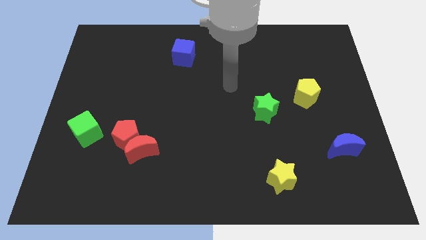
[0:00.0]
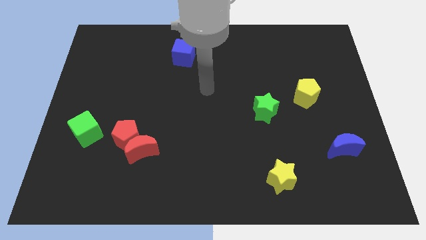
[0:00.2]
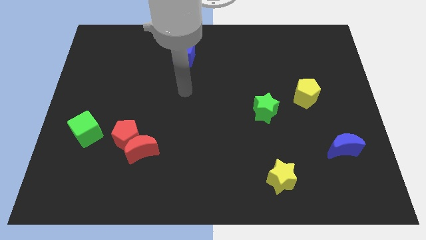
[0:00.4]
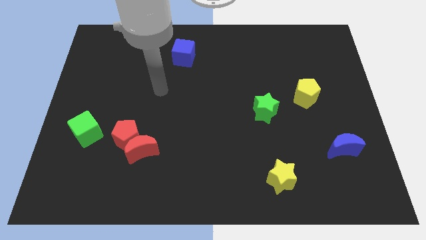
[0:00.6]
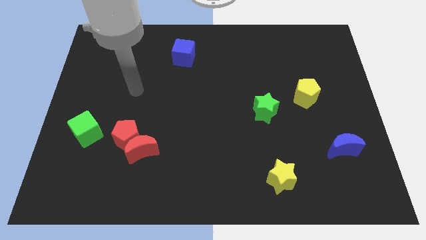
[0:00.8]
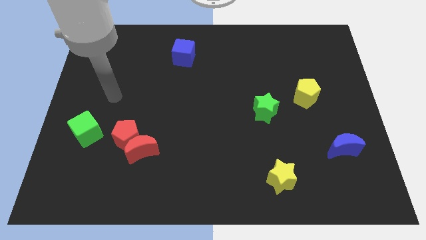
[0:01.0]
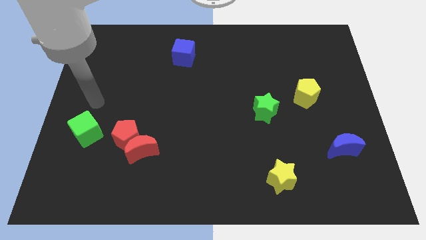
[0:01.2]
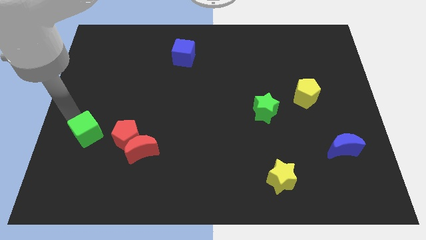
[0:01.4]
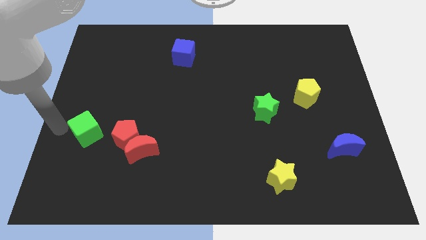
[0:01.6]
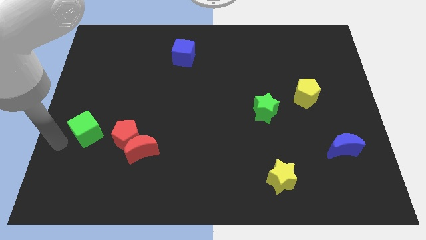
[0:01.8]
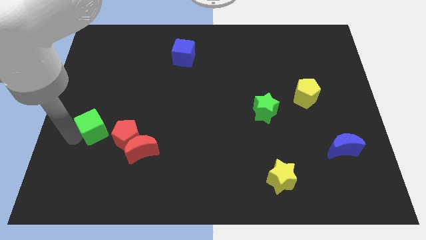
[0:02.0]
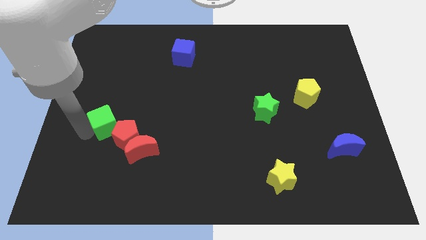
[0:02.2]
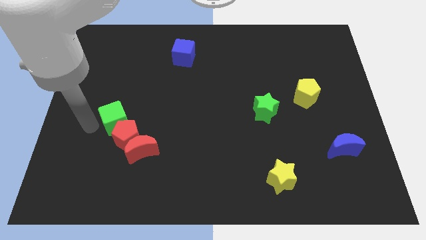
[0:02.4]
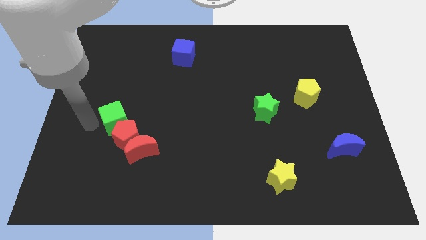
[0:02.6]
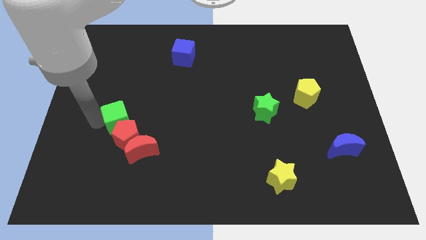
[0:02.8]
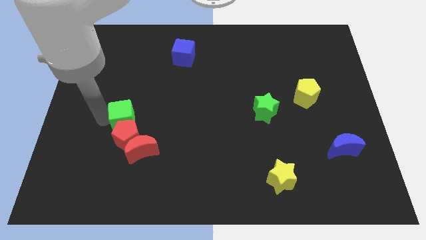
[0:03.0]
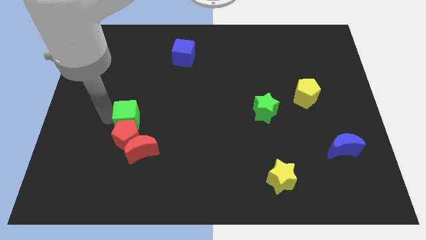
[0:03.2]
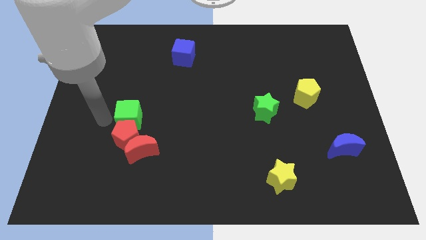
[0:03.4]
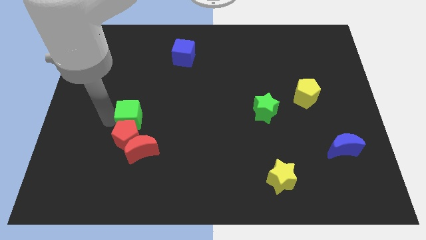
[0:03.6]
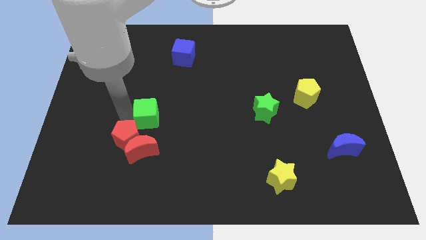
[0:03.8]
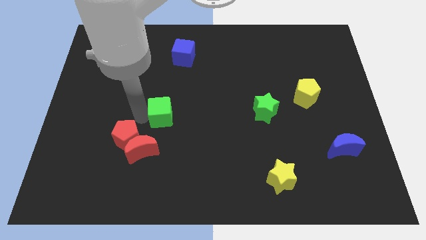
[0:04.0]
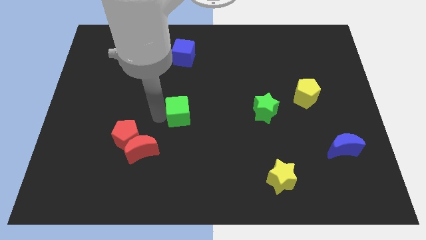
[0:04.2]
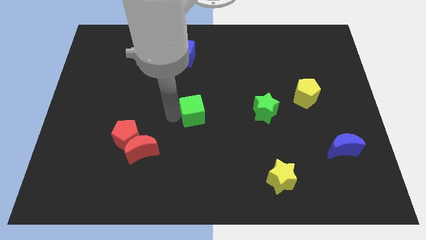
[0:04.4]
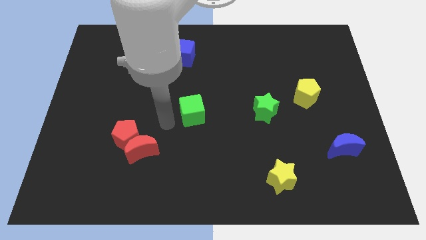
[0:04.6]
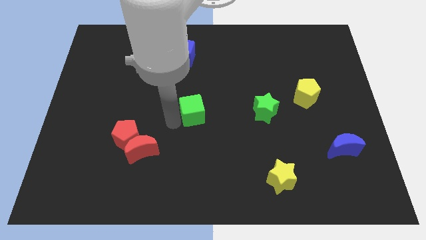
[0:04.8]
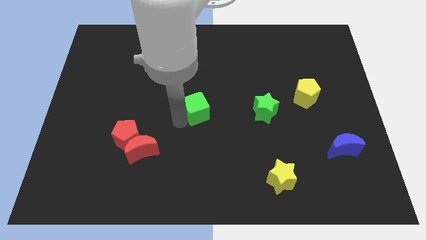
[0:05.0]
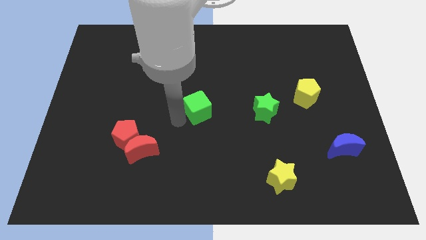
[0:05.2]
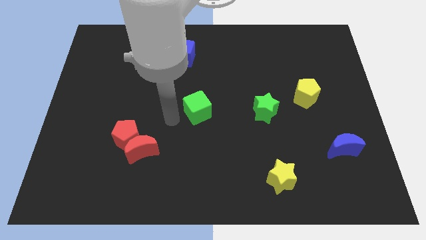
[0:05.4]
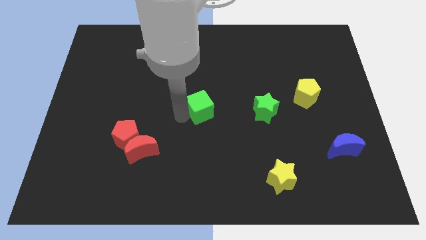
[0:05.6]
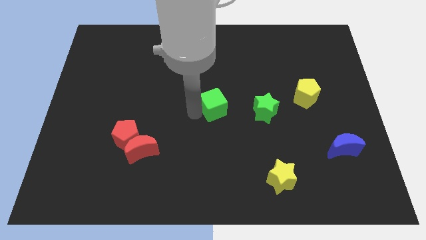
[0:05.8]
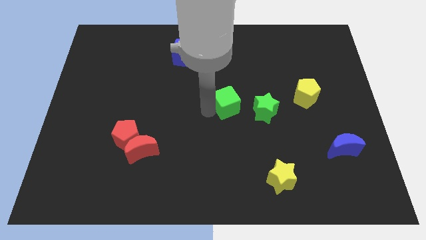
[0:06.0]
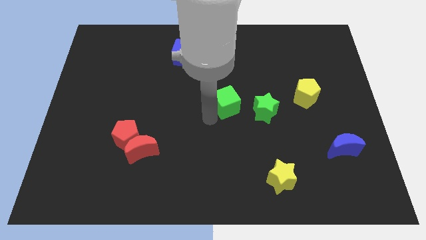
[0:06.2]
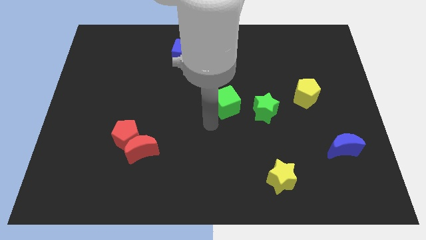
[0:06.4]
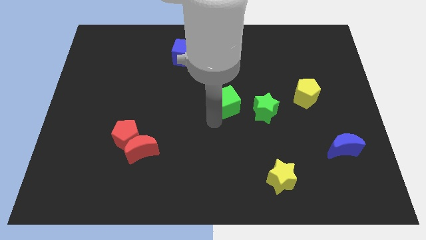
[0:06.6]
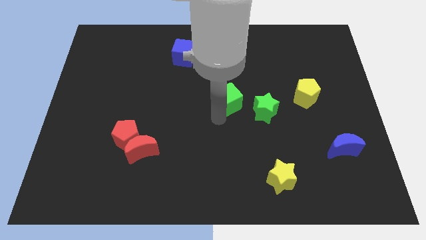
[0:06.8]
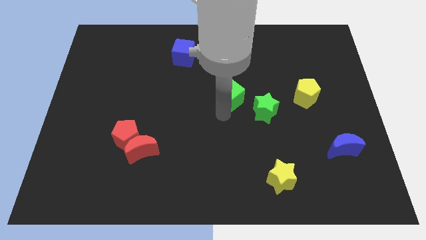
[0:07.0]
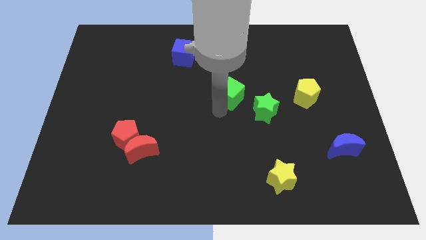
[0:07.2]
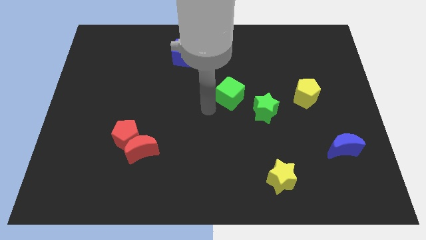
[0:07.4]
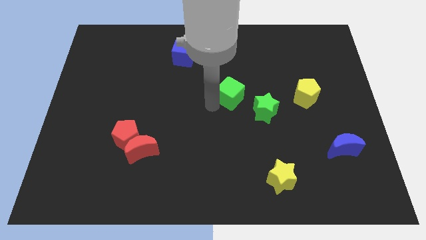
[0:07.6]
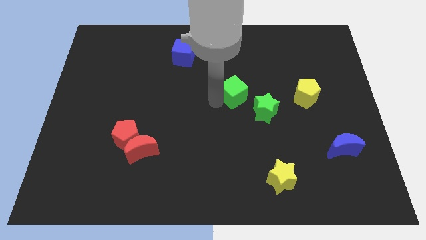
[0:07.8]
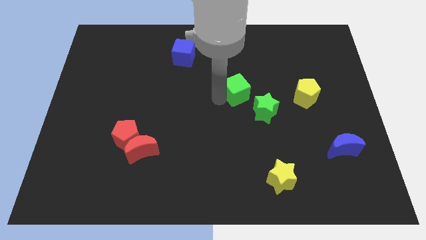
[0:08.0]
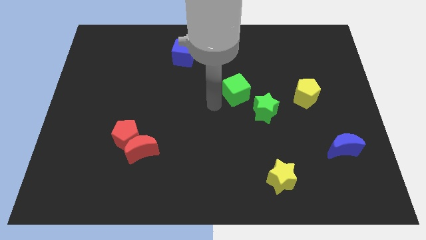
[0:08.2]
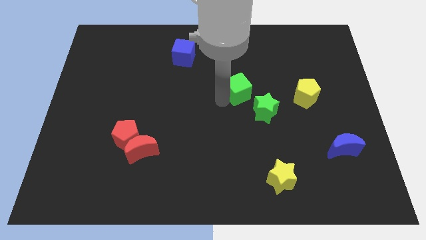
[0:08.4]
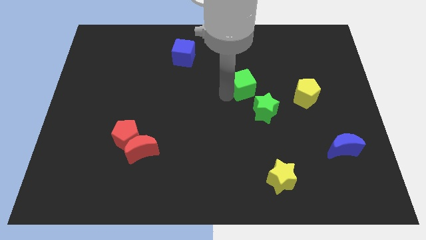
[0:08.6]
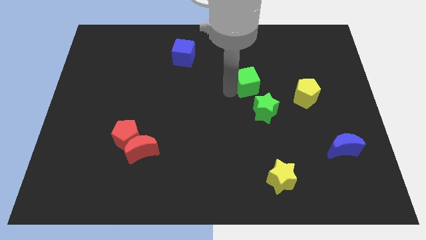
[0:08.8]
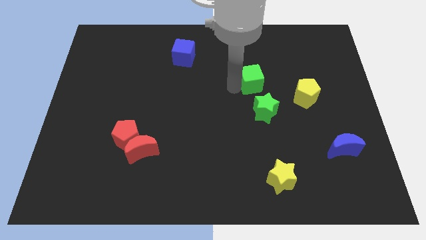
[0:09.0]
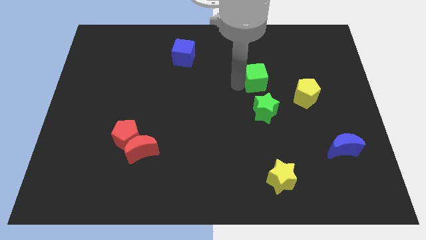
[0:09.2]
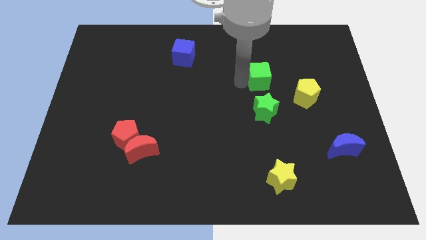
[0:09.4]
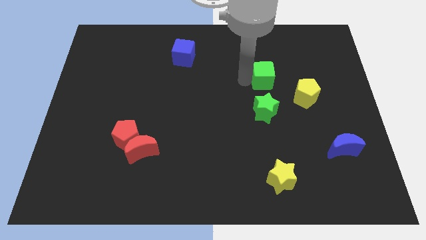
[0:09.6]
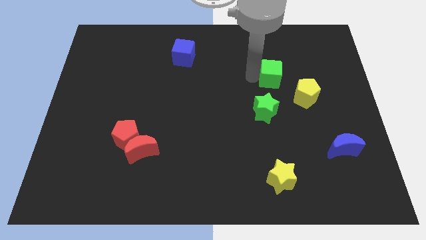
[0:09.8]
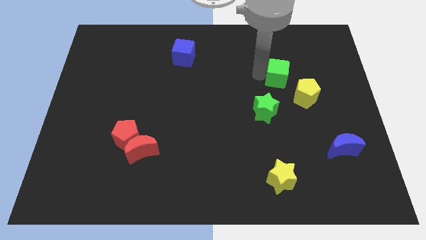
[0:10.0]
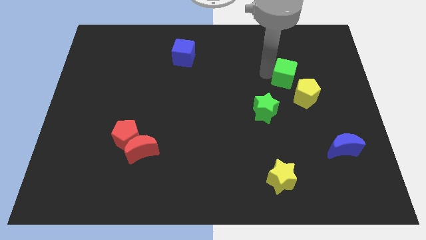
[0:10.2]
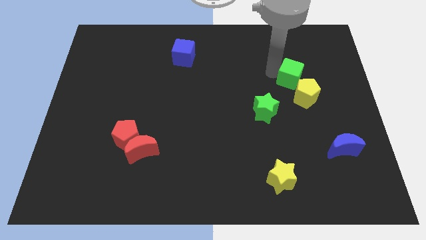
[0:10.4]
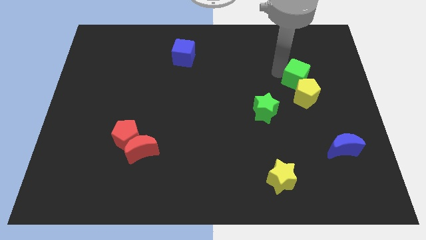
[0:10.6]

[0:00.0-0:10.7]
push the green cube towards the yellow pentagon

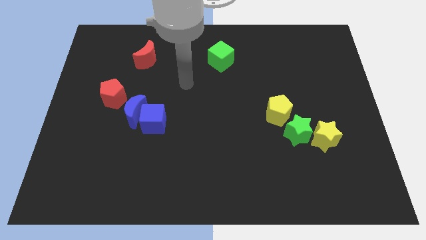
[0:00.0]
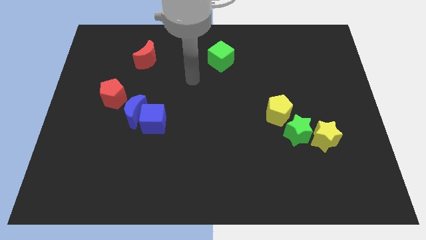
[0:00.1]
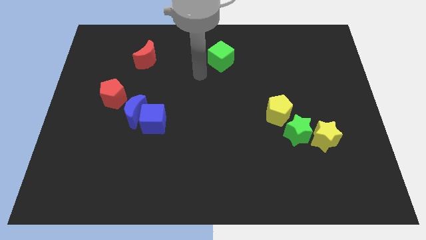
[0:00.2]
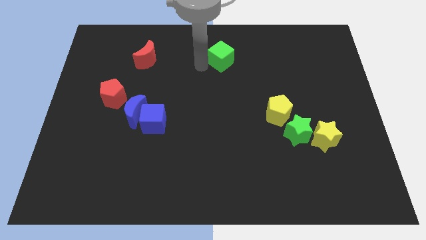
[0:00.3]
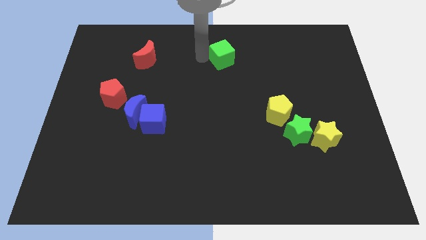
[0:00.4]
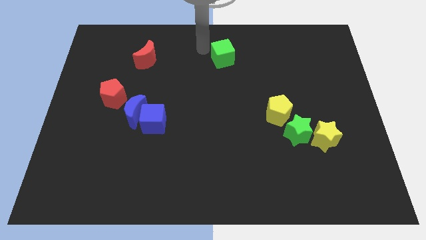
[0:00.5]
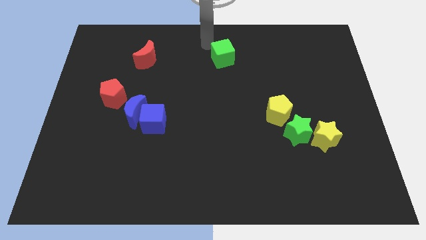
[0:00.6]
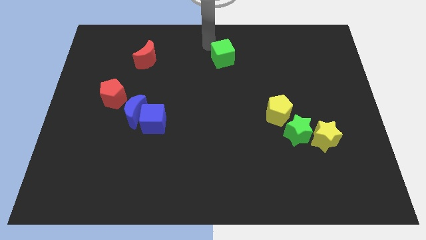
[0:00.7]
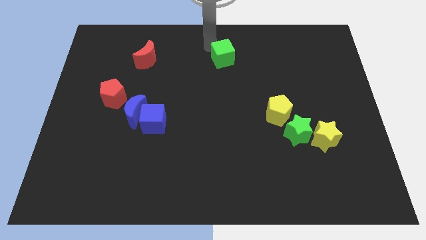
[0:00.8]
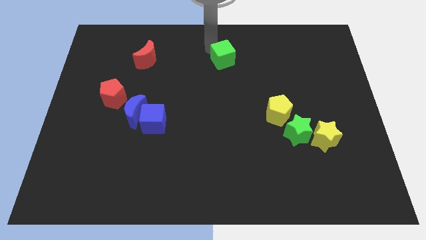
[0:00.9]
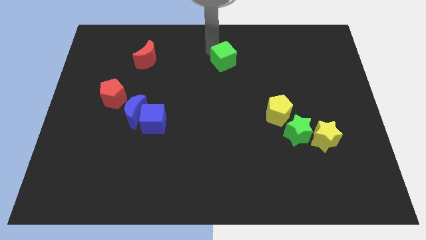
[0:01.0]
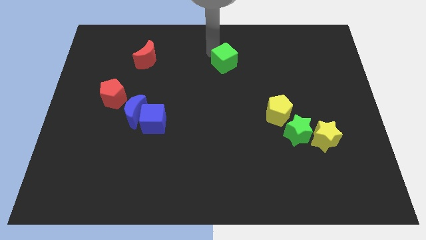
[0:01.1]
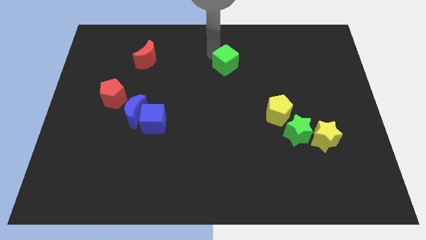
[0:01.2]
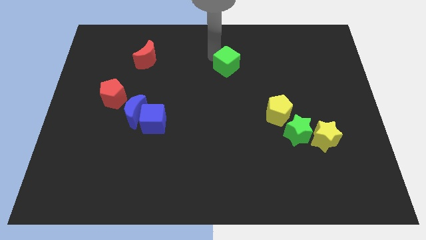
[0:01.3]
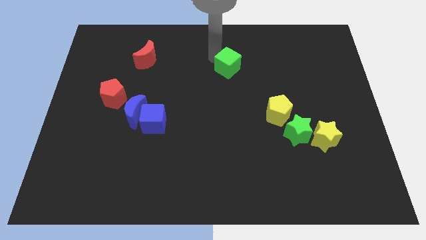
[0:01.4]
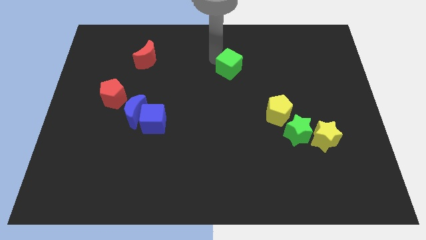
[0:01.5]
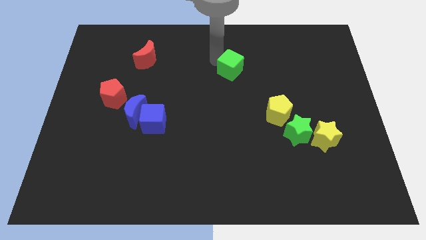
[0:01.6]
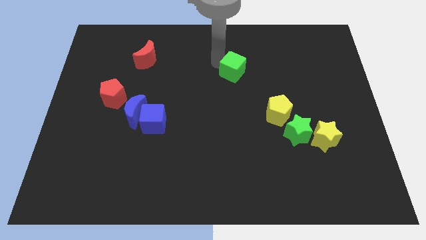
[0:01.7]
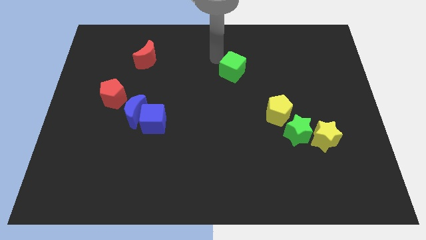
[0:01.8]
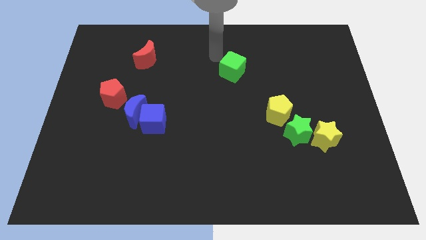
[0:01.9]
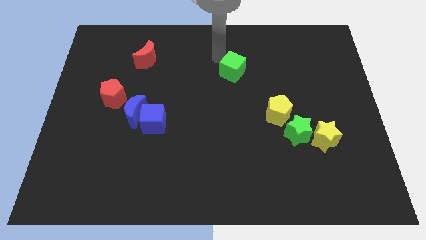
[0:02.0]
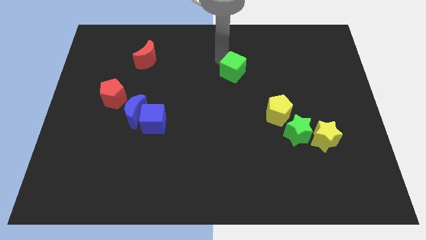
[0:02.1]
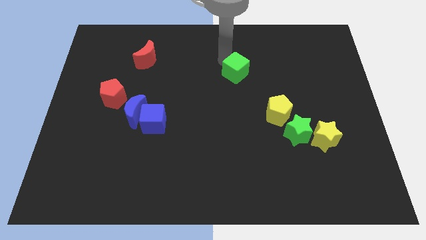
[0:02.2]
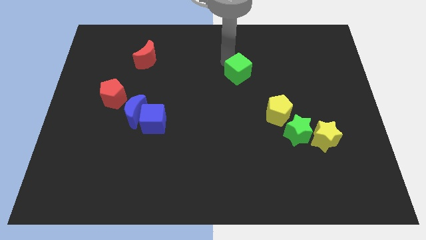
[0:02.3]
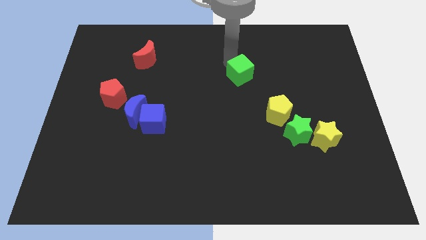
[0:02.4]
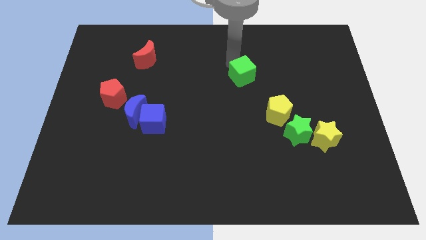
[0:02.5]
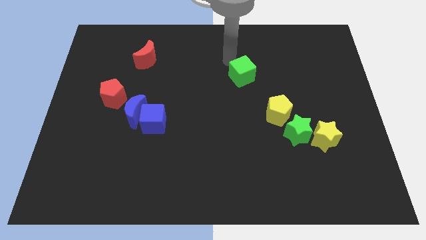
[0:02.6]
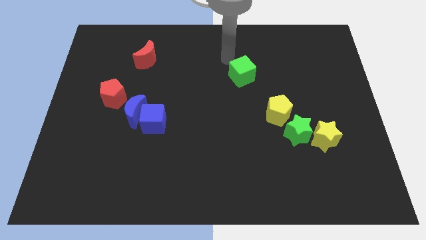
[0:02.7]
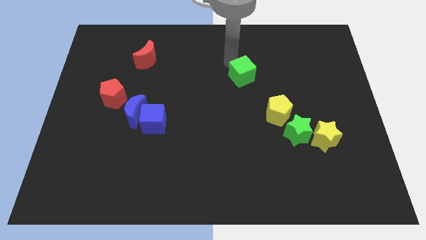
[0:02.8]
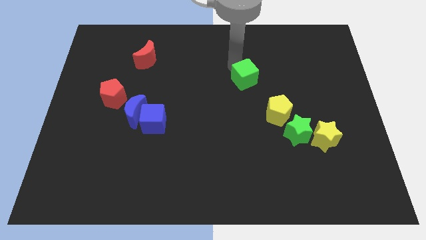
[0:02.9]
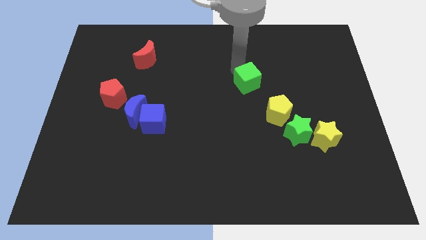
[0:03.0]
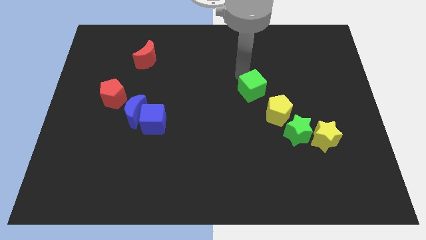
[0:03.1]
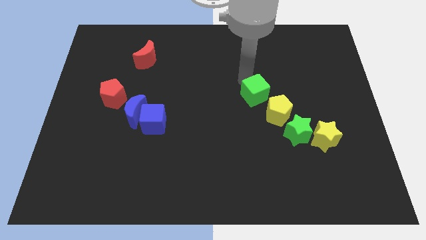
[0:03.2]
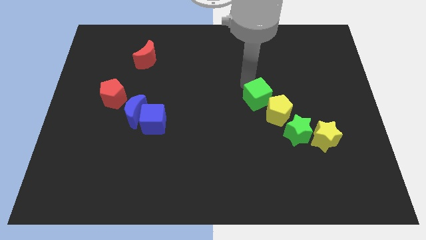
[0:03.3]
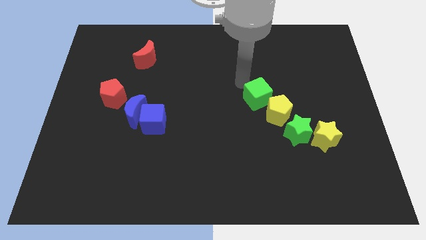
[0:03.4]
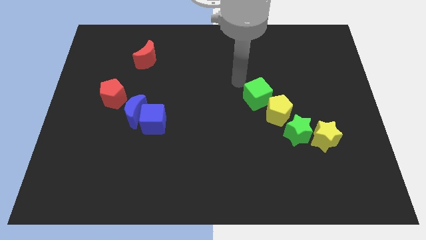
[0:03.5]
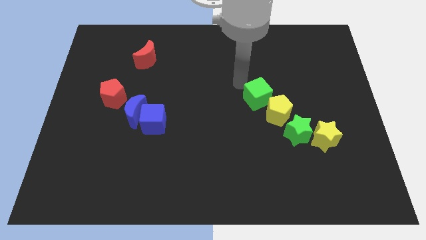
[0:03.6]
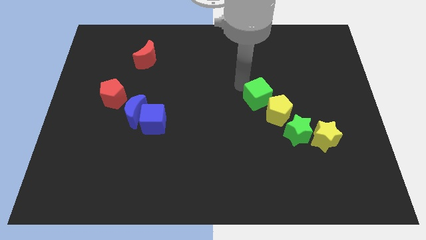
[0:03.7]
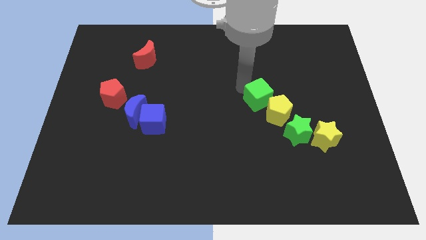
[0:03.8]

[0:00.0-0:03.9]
slide the green cube towards the yellow pentagon
